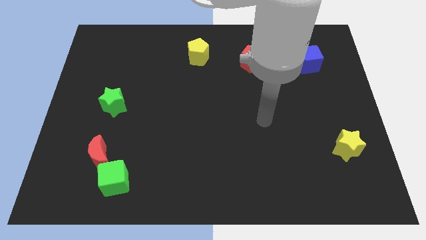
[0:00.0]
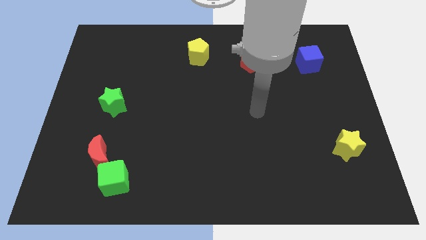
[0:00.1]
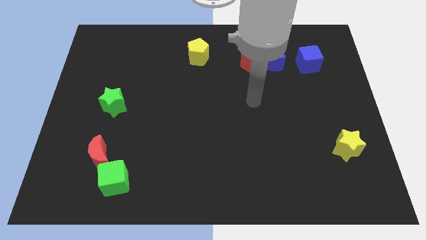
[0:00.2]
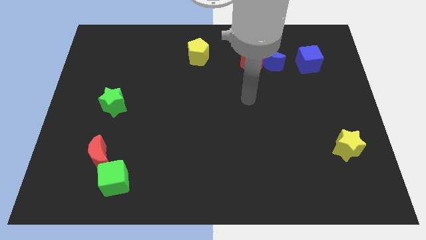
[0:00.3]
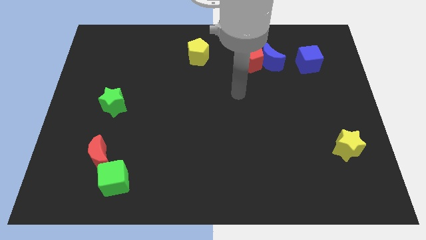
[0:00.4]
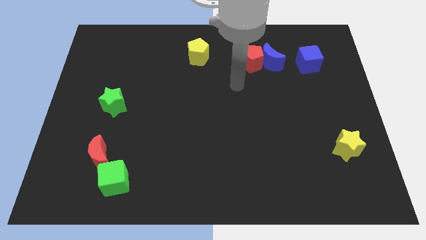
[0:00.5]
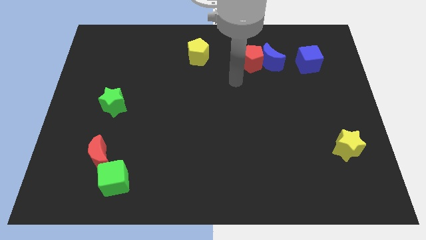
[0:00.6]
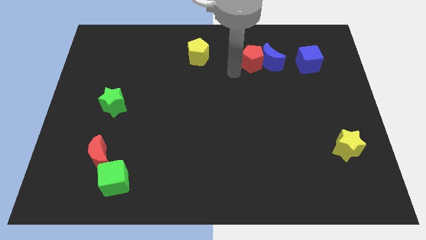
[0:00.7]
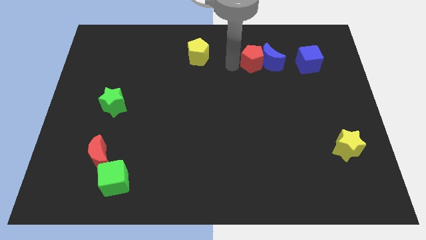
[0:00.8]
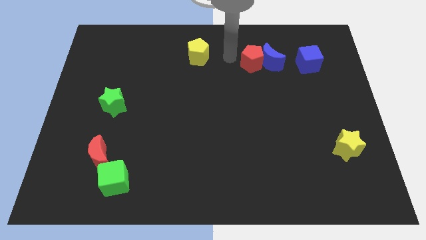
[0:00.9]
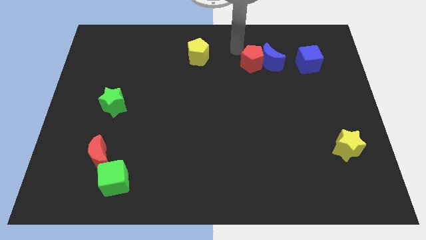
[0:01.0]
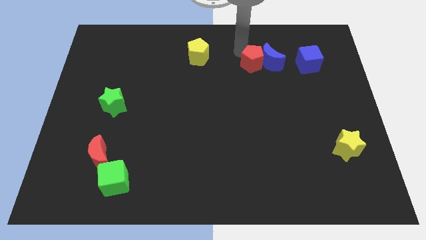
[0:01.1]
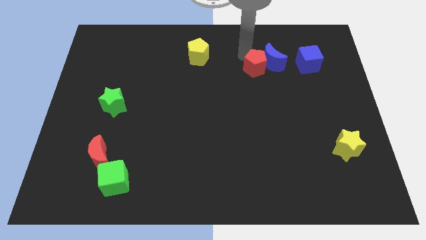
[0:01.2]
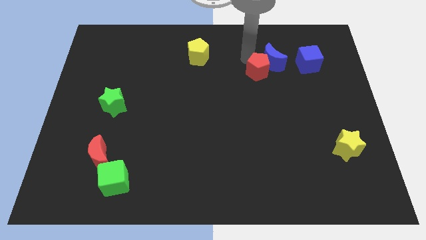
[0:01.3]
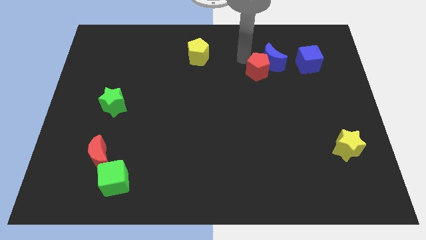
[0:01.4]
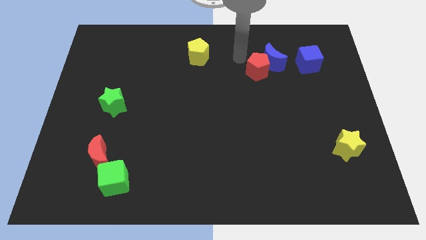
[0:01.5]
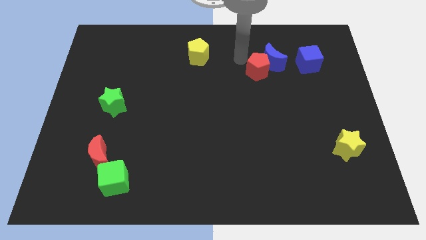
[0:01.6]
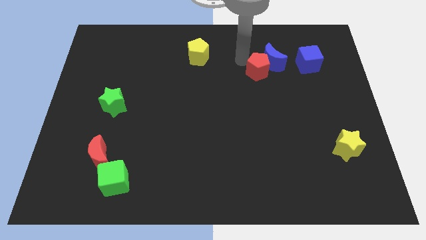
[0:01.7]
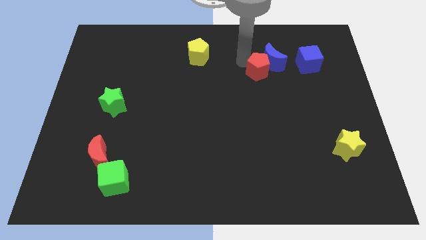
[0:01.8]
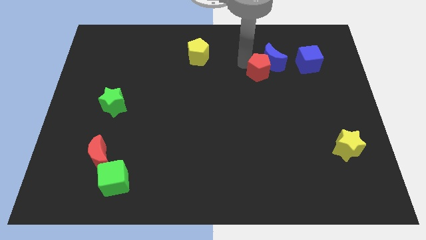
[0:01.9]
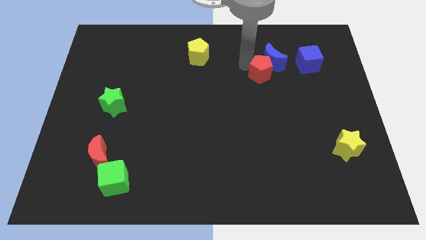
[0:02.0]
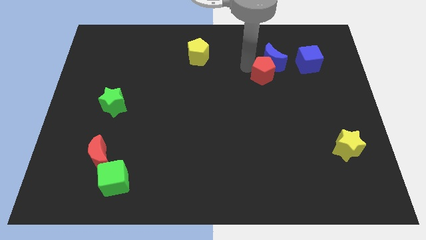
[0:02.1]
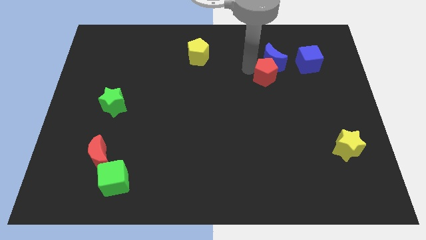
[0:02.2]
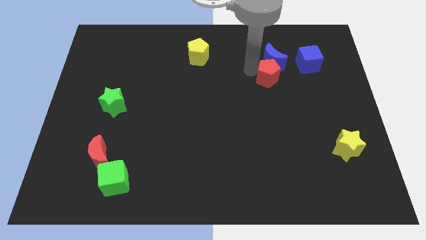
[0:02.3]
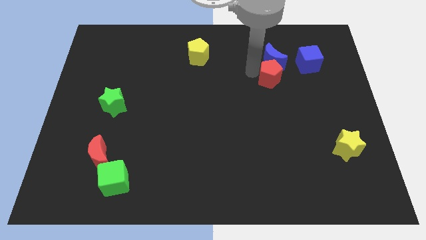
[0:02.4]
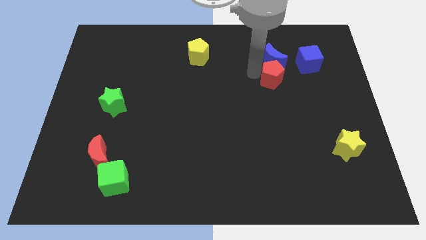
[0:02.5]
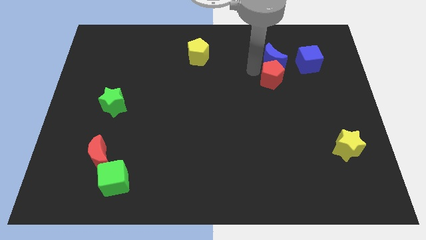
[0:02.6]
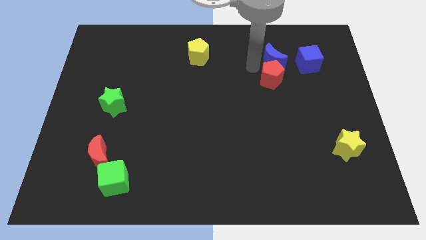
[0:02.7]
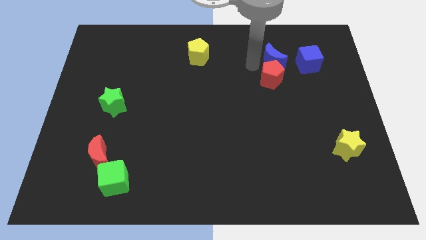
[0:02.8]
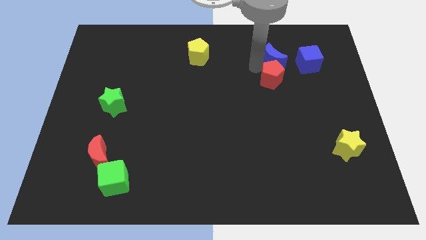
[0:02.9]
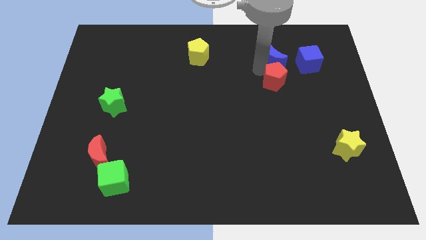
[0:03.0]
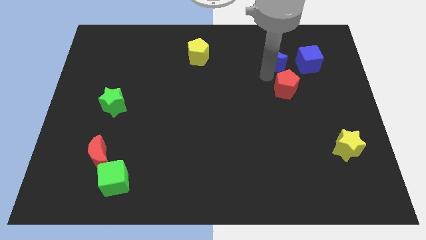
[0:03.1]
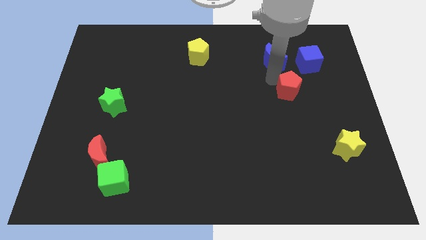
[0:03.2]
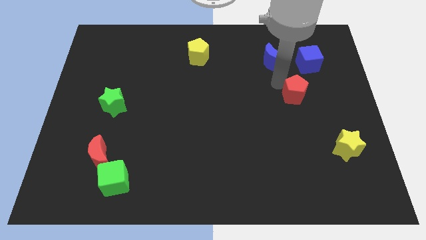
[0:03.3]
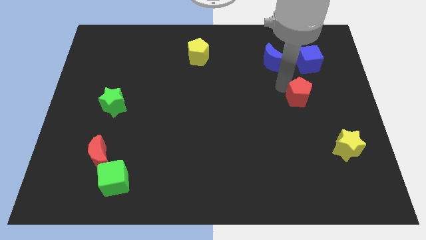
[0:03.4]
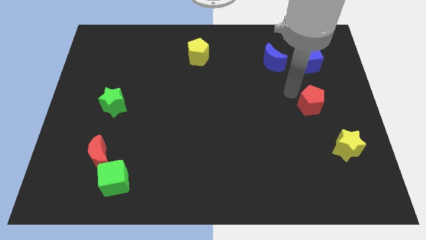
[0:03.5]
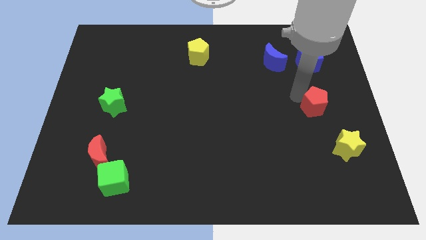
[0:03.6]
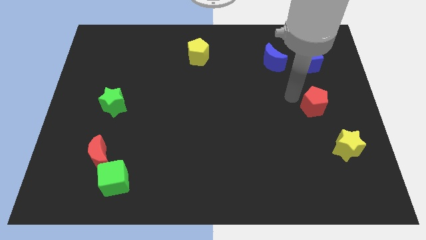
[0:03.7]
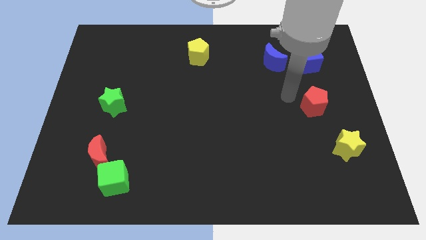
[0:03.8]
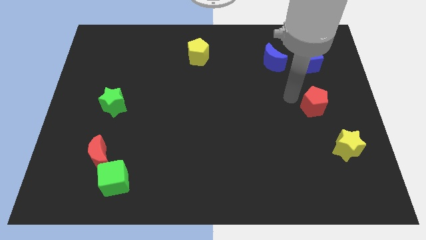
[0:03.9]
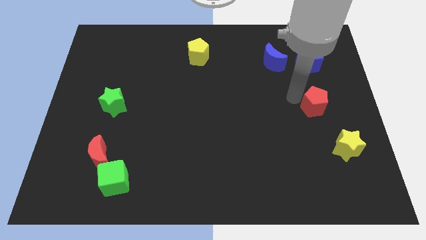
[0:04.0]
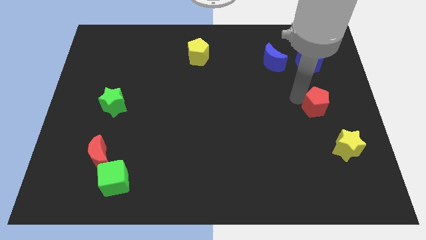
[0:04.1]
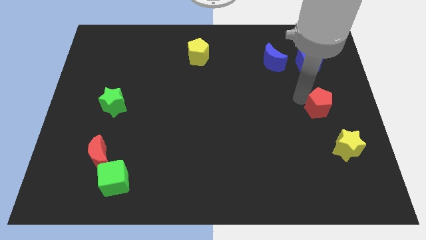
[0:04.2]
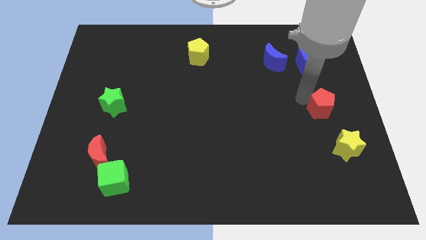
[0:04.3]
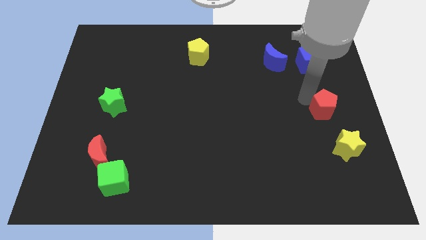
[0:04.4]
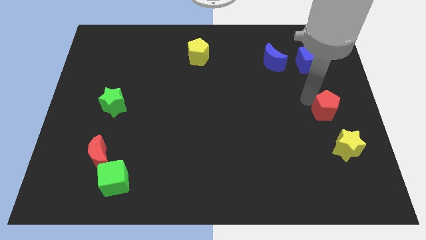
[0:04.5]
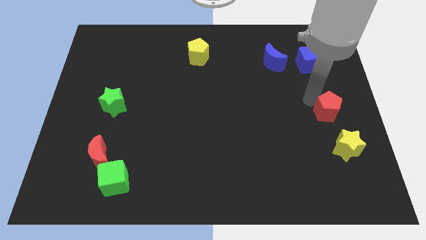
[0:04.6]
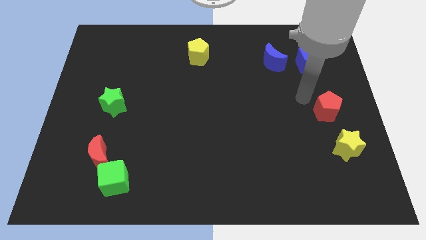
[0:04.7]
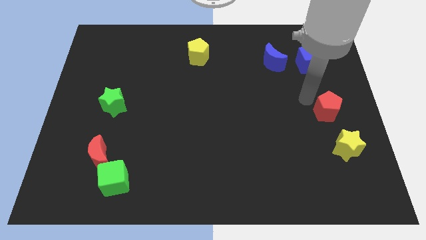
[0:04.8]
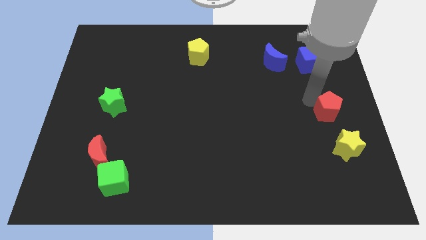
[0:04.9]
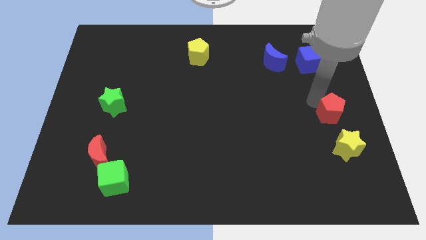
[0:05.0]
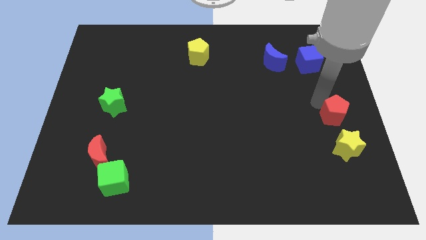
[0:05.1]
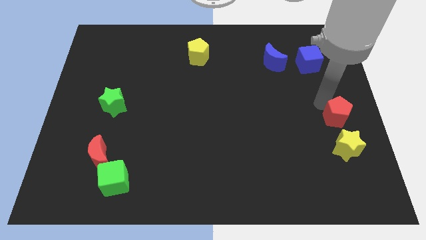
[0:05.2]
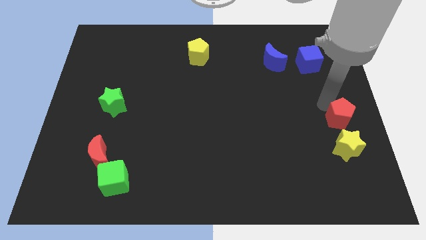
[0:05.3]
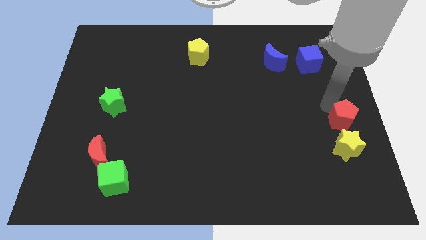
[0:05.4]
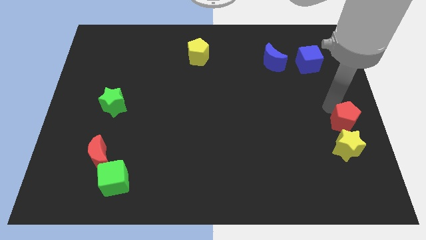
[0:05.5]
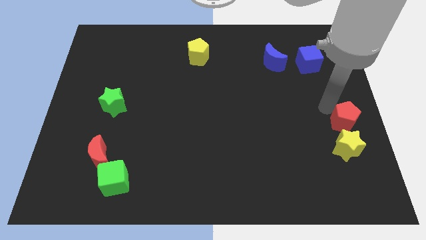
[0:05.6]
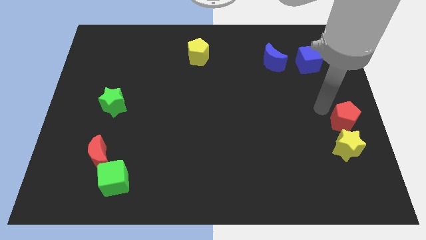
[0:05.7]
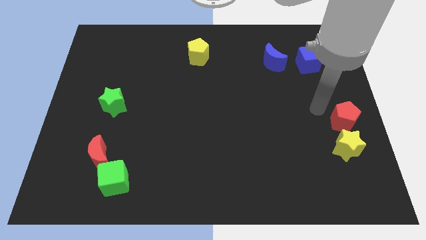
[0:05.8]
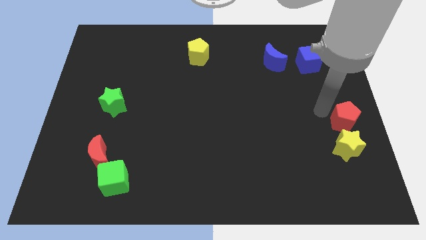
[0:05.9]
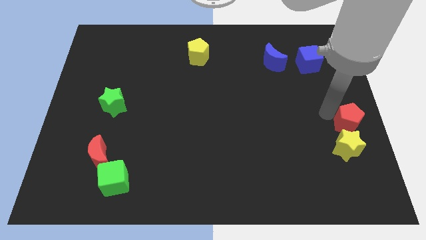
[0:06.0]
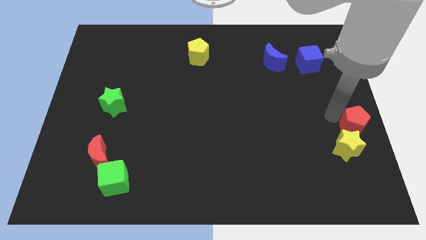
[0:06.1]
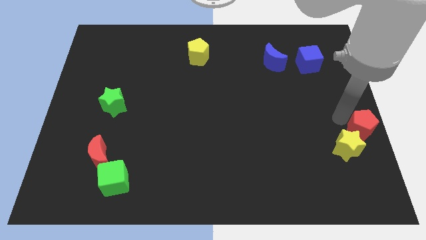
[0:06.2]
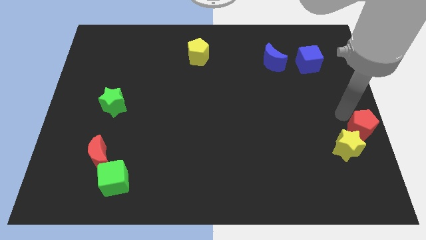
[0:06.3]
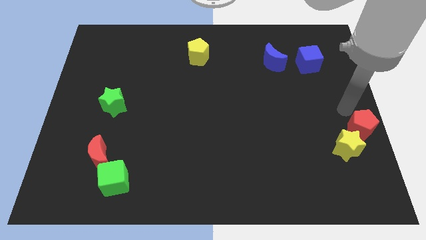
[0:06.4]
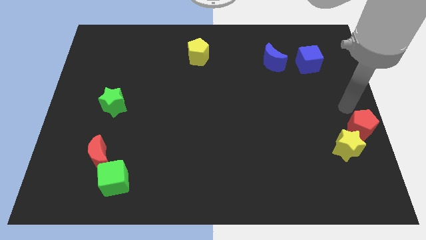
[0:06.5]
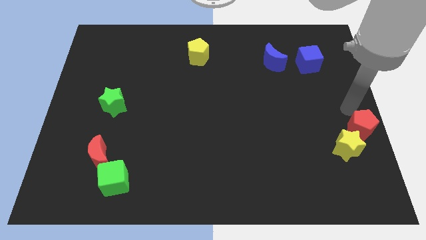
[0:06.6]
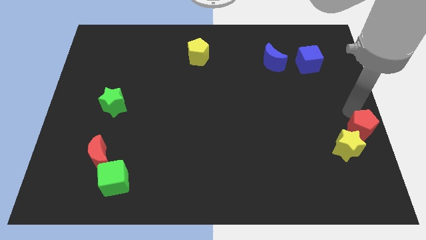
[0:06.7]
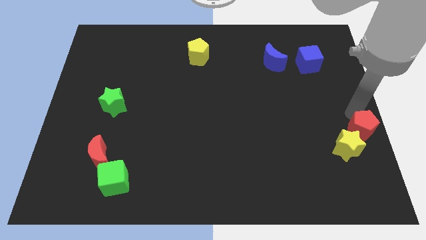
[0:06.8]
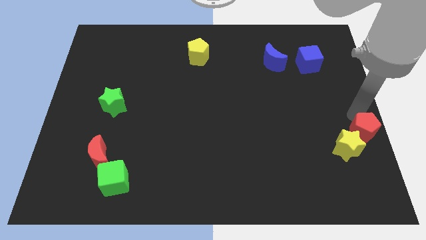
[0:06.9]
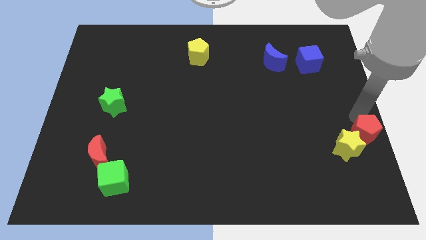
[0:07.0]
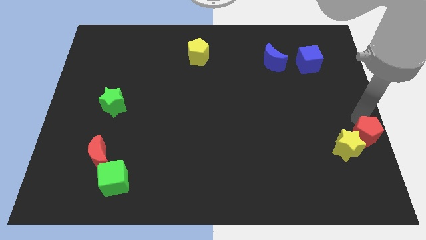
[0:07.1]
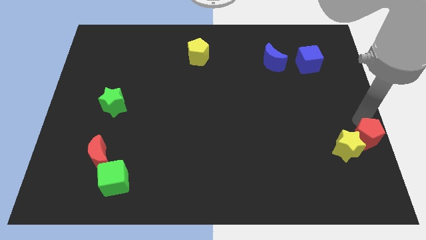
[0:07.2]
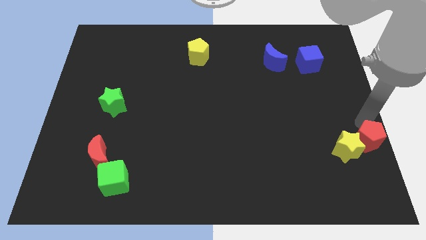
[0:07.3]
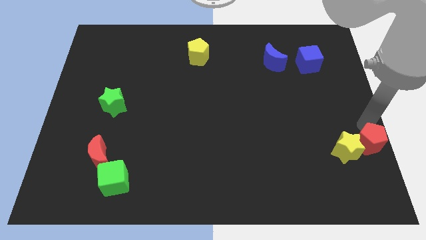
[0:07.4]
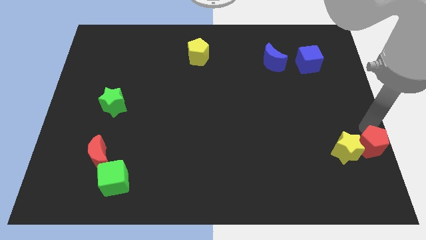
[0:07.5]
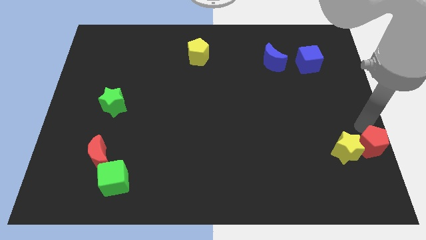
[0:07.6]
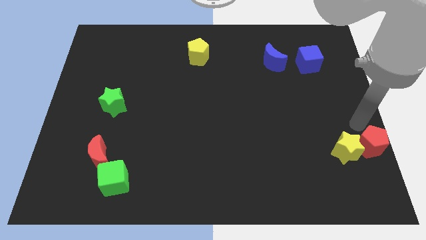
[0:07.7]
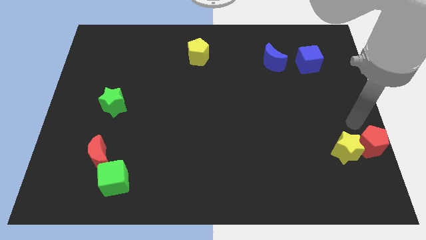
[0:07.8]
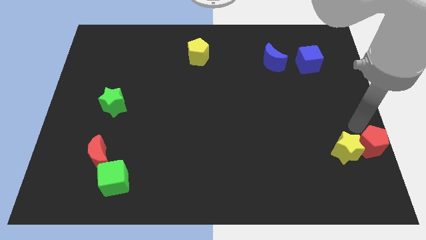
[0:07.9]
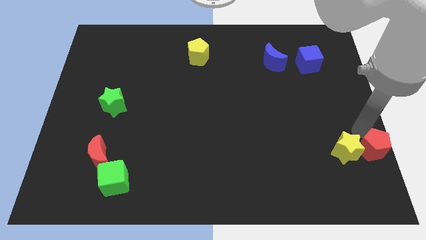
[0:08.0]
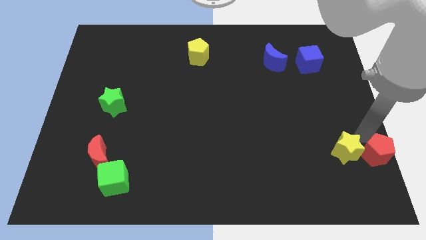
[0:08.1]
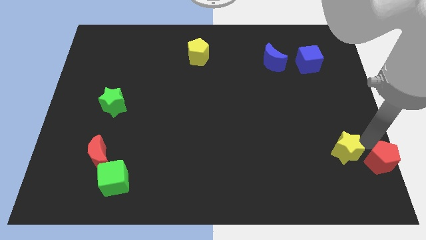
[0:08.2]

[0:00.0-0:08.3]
put the red pentagon to the bottom right corner
